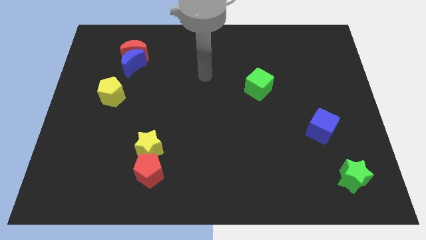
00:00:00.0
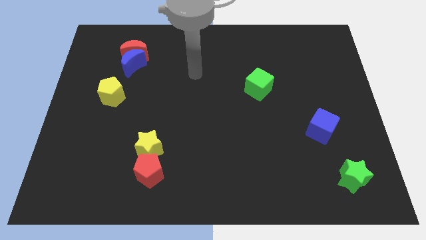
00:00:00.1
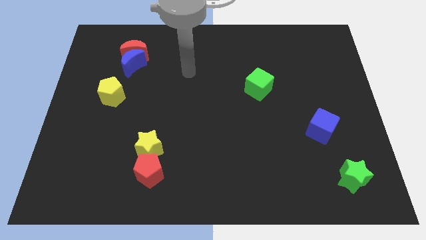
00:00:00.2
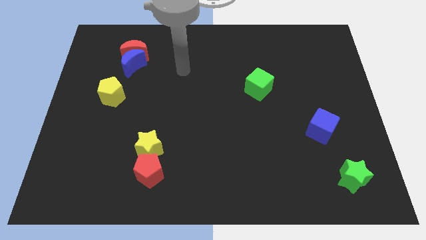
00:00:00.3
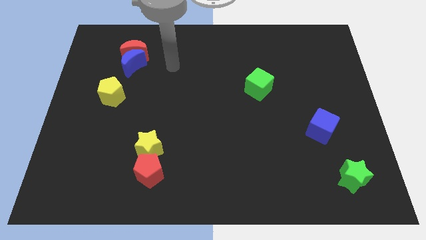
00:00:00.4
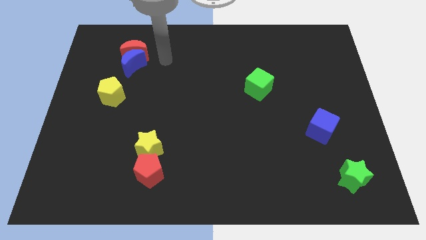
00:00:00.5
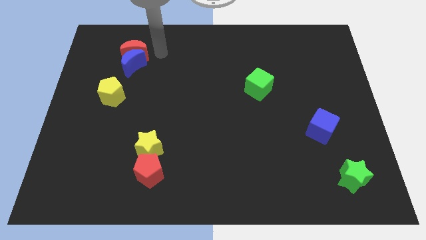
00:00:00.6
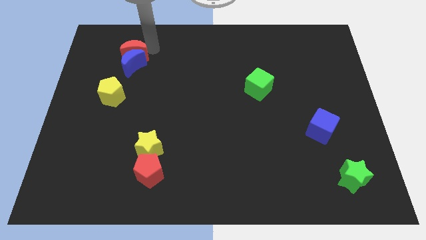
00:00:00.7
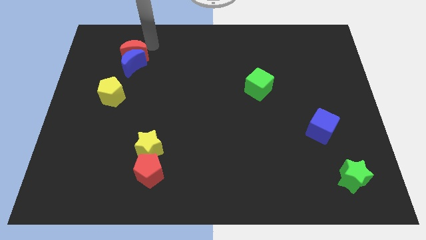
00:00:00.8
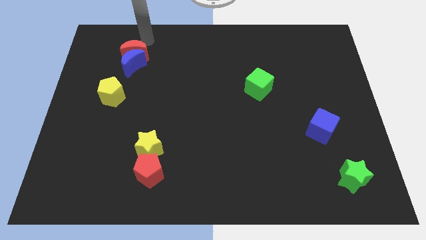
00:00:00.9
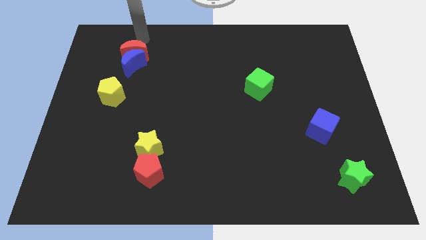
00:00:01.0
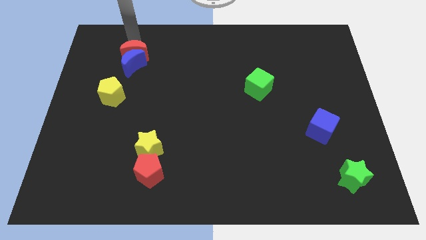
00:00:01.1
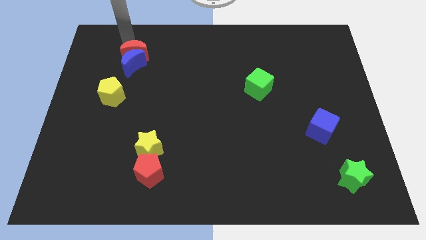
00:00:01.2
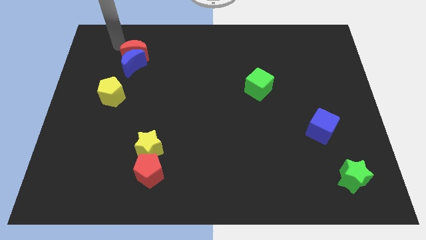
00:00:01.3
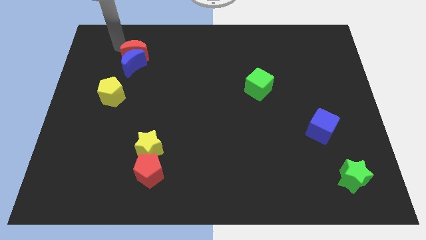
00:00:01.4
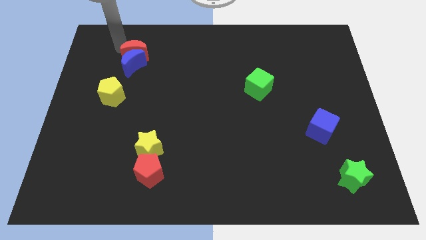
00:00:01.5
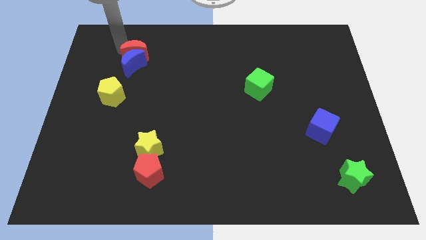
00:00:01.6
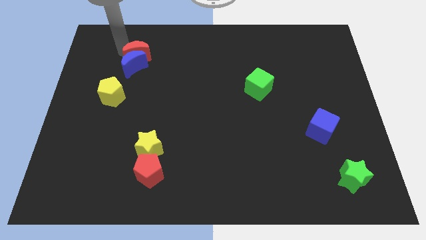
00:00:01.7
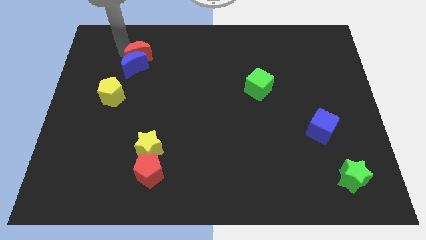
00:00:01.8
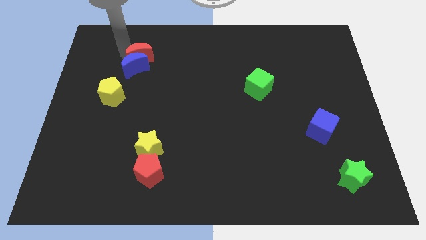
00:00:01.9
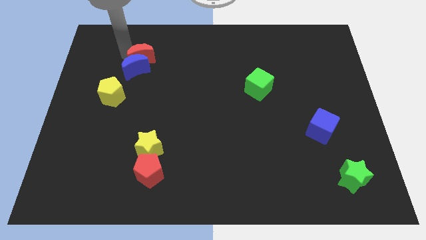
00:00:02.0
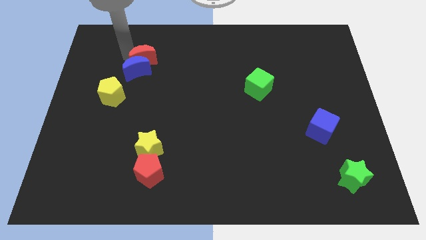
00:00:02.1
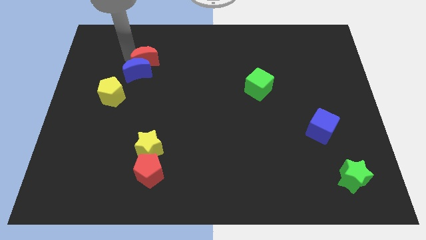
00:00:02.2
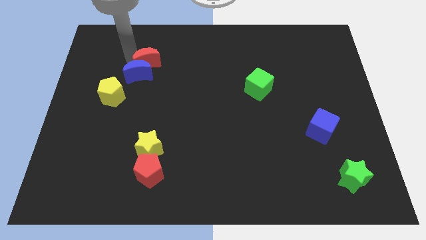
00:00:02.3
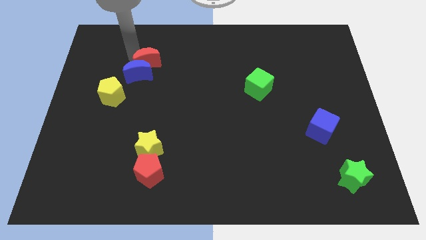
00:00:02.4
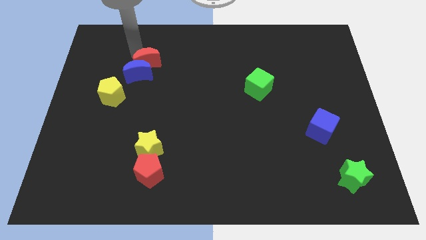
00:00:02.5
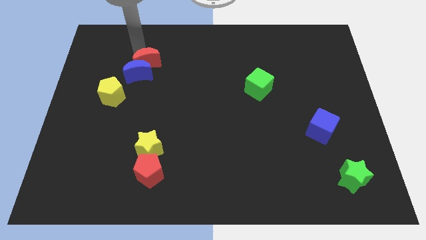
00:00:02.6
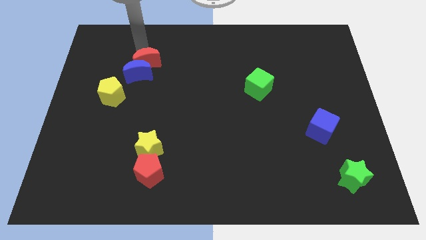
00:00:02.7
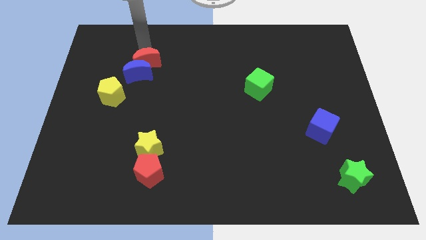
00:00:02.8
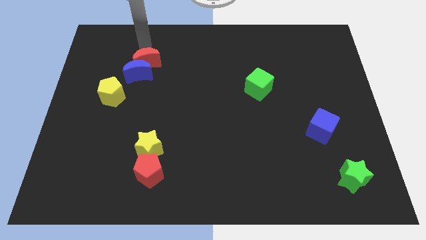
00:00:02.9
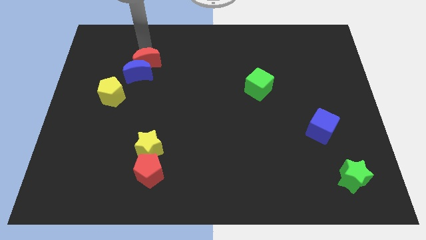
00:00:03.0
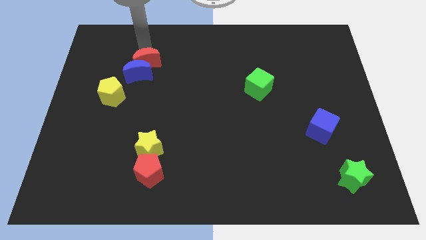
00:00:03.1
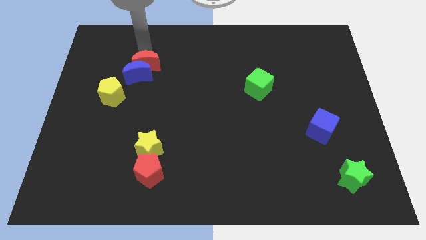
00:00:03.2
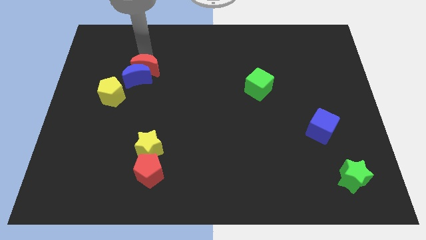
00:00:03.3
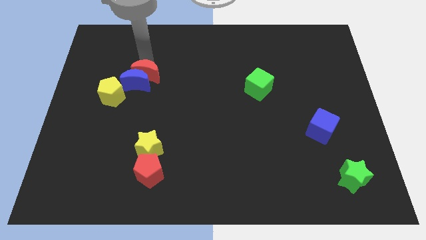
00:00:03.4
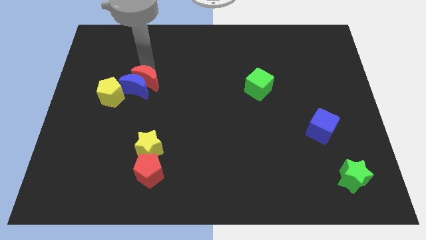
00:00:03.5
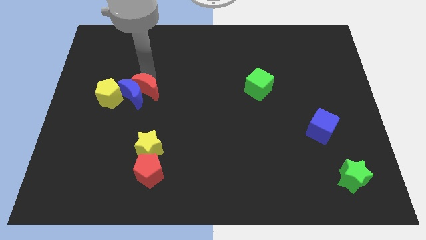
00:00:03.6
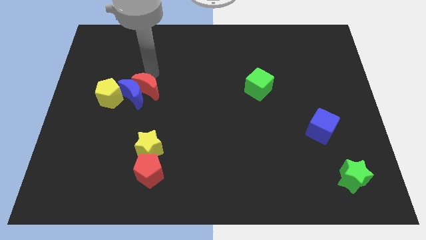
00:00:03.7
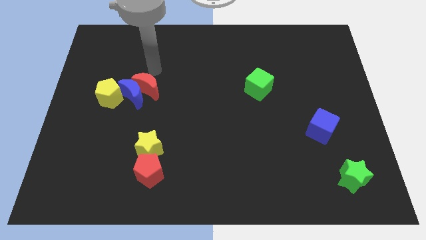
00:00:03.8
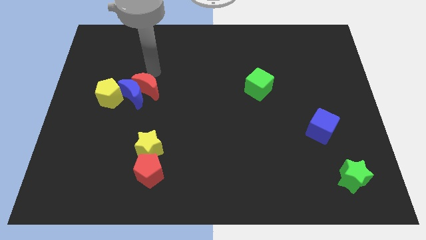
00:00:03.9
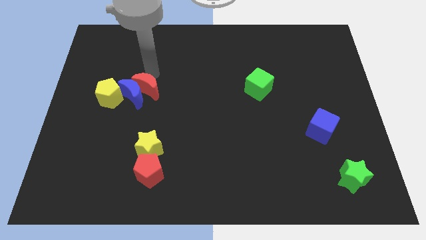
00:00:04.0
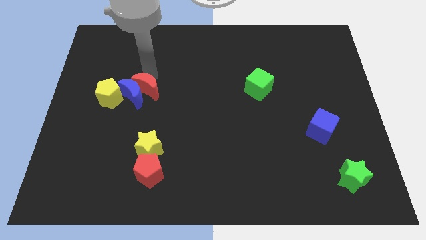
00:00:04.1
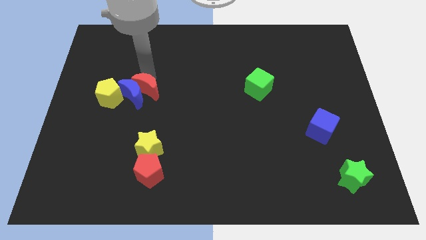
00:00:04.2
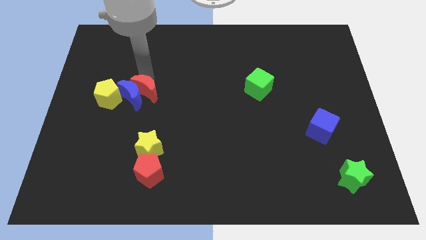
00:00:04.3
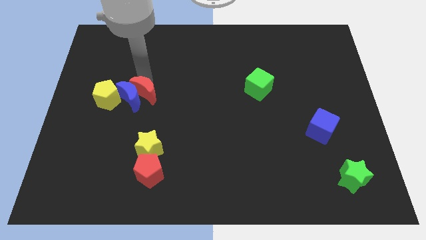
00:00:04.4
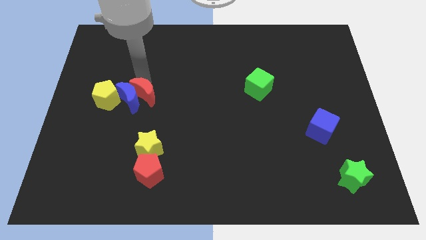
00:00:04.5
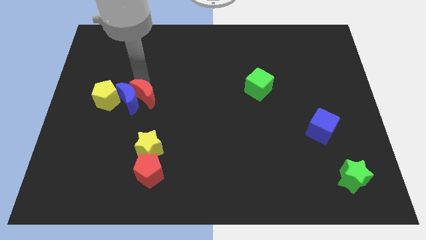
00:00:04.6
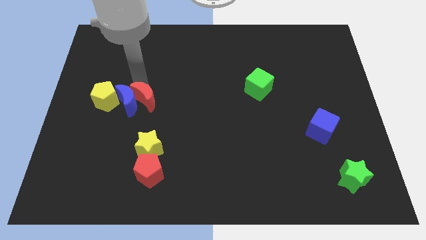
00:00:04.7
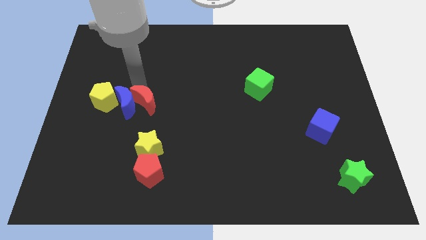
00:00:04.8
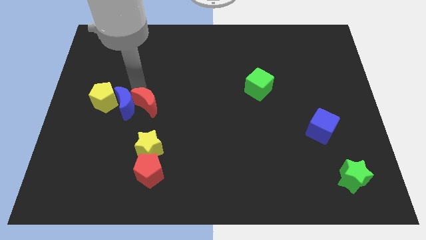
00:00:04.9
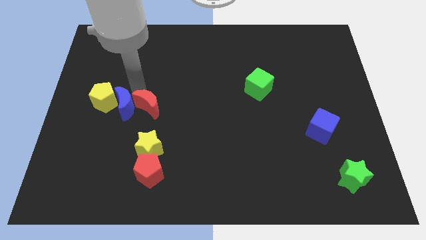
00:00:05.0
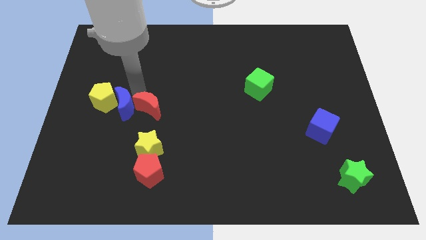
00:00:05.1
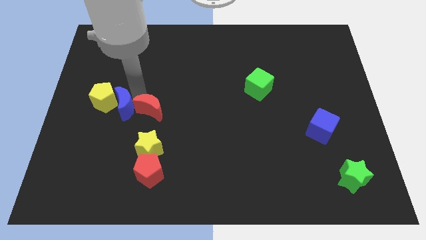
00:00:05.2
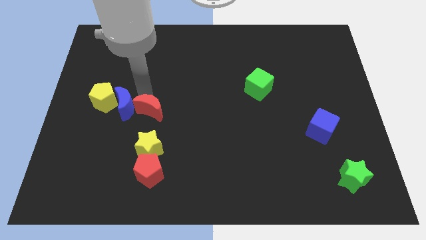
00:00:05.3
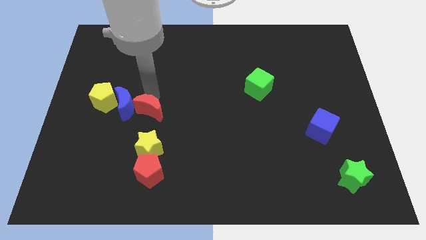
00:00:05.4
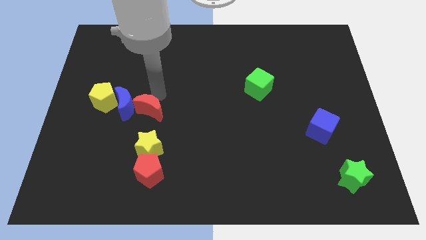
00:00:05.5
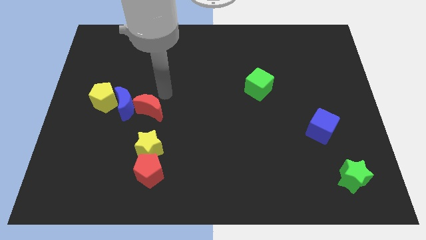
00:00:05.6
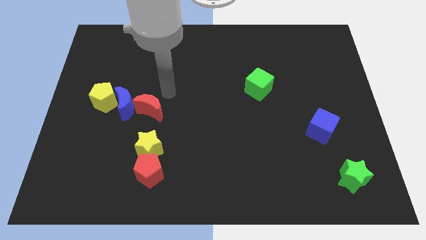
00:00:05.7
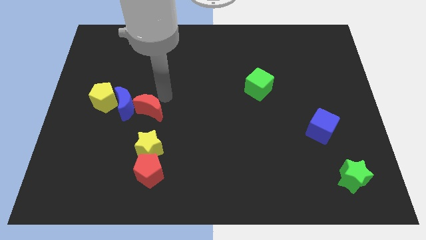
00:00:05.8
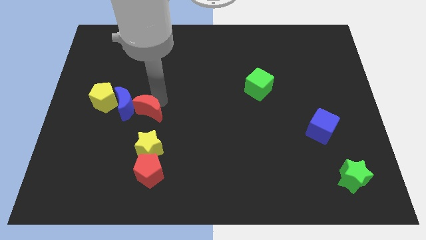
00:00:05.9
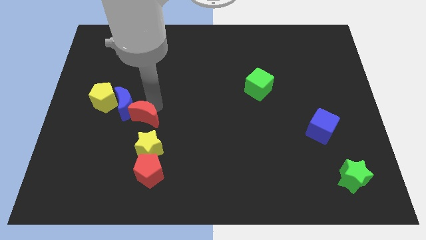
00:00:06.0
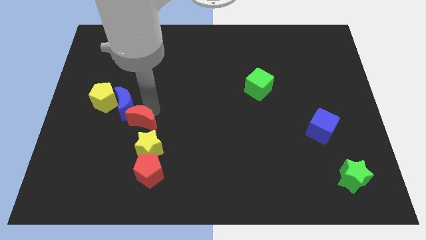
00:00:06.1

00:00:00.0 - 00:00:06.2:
move the red moon downwards

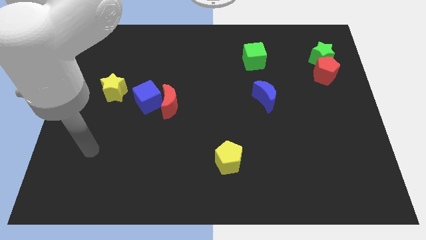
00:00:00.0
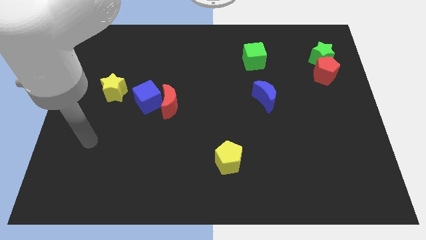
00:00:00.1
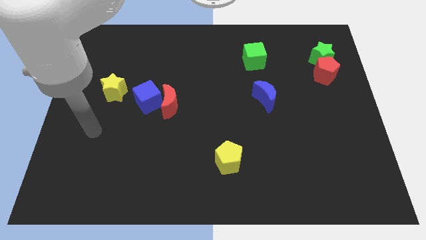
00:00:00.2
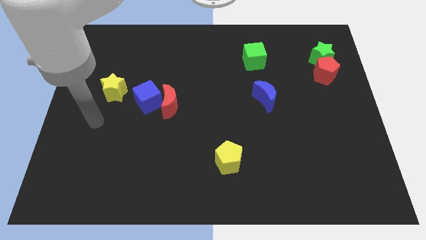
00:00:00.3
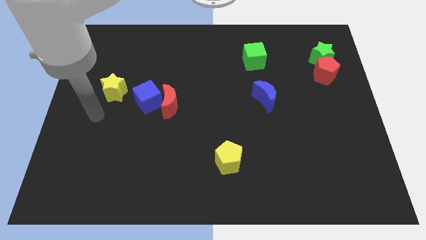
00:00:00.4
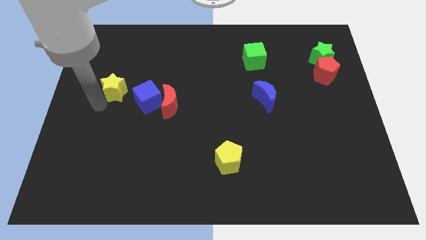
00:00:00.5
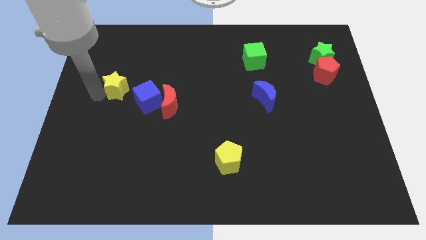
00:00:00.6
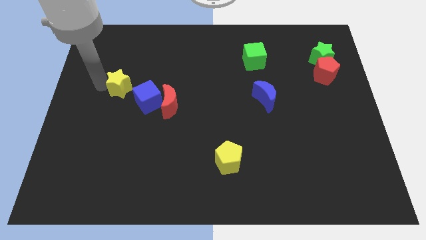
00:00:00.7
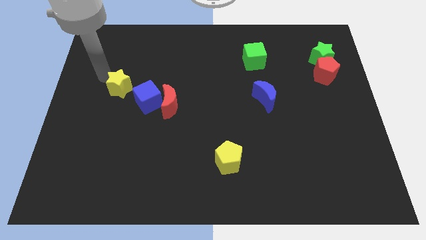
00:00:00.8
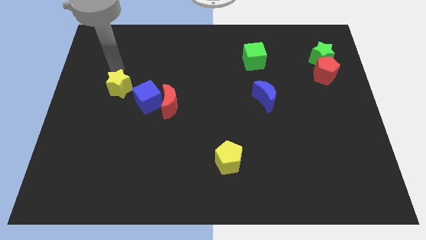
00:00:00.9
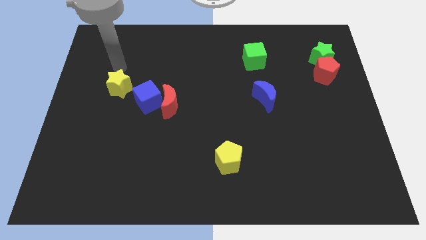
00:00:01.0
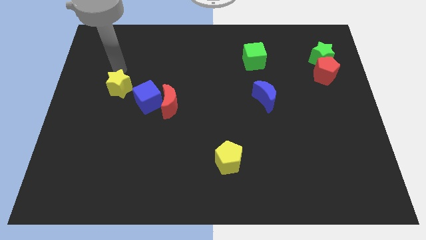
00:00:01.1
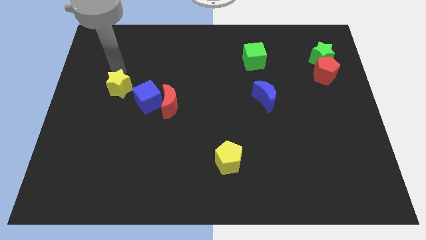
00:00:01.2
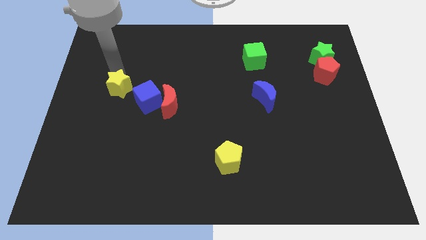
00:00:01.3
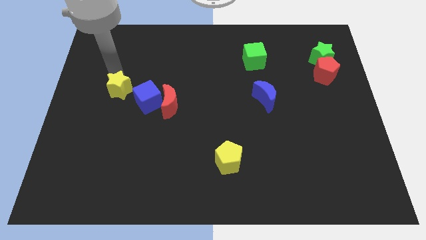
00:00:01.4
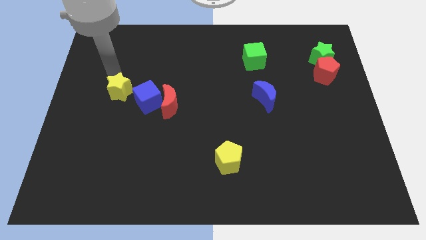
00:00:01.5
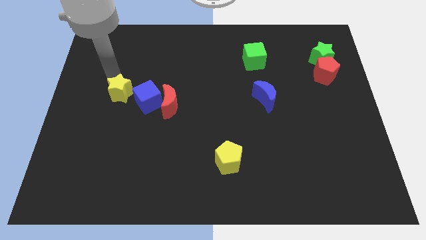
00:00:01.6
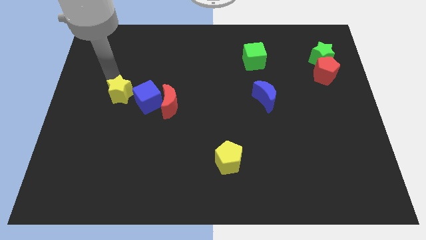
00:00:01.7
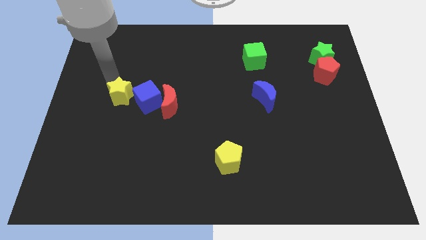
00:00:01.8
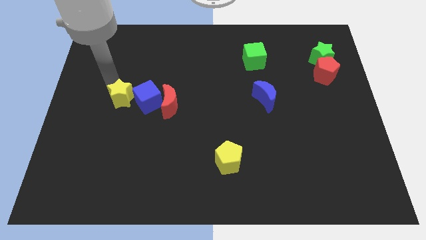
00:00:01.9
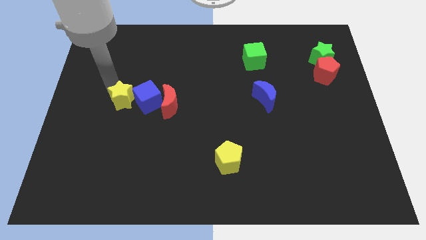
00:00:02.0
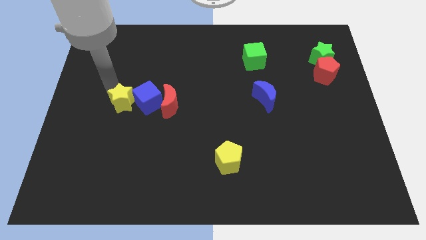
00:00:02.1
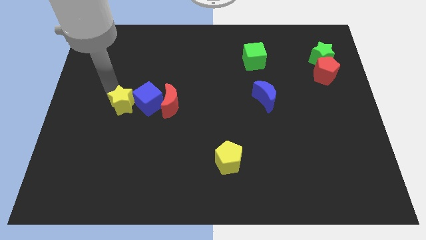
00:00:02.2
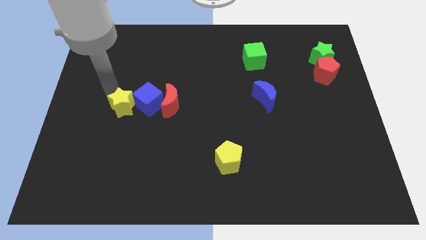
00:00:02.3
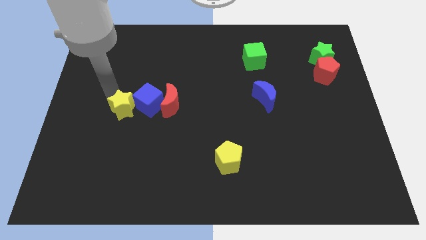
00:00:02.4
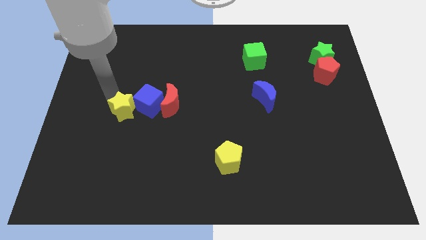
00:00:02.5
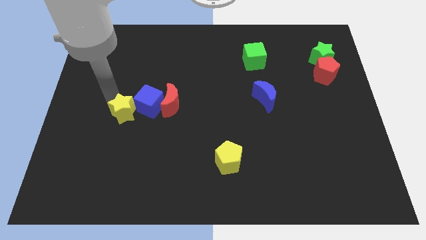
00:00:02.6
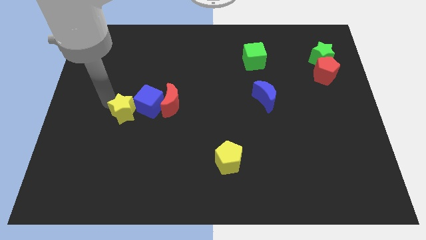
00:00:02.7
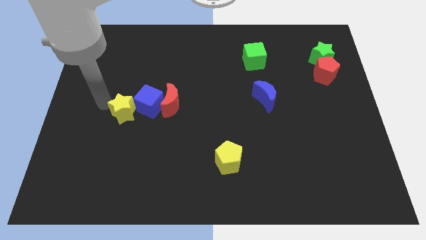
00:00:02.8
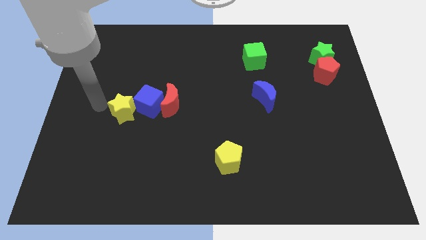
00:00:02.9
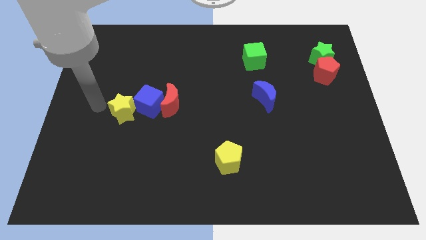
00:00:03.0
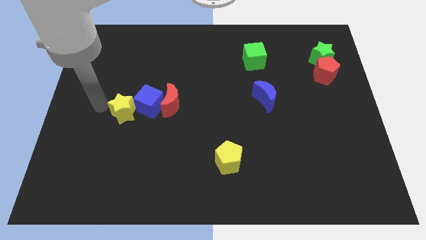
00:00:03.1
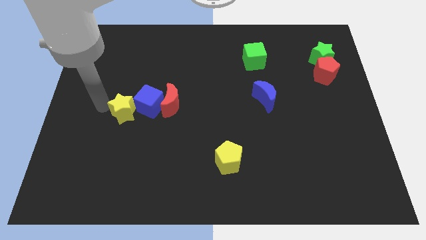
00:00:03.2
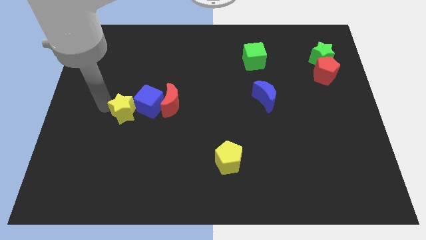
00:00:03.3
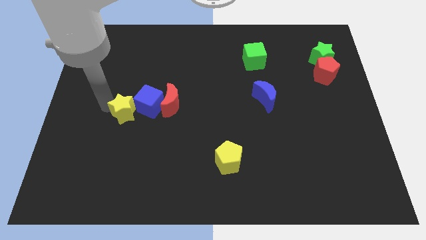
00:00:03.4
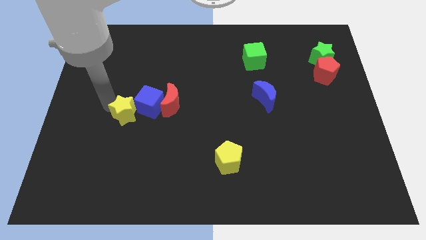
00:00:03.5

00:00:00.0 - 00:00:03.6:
slide the yellow star a little bit downwards and right
